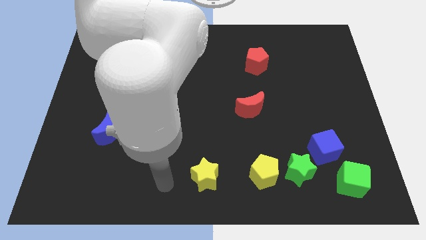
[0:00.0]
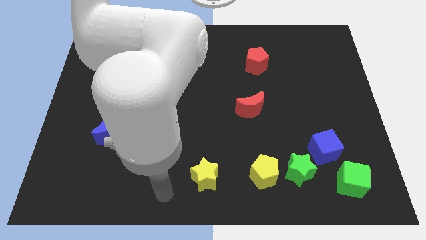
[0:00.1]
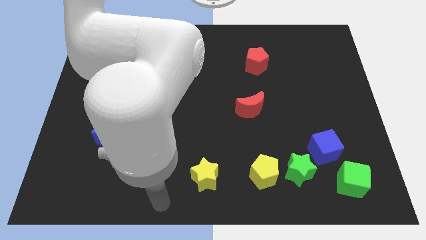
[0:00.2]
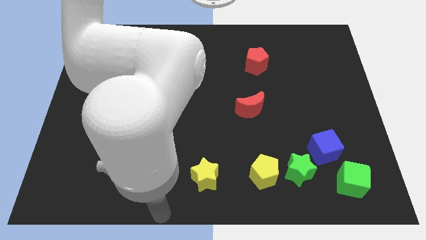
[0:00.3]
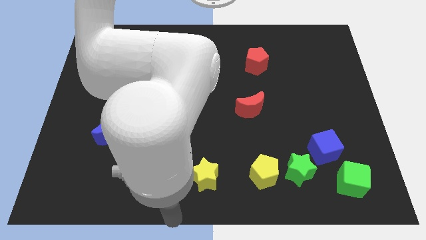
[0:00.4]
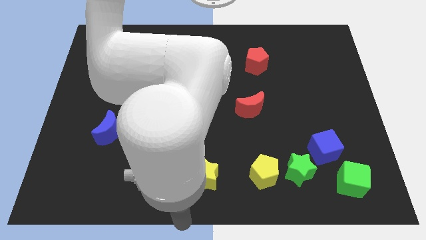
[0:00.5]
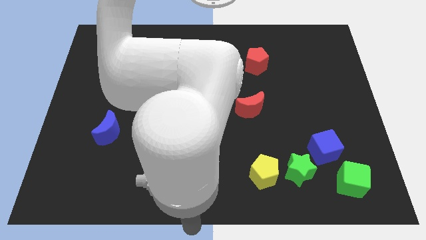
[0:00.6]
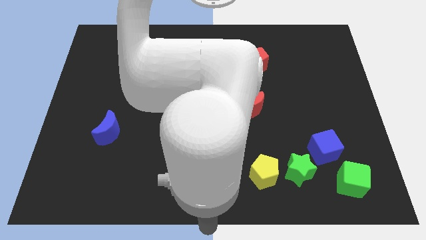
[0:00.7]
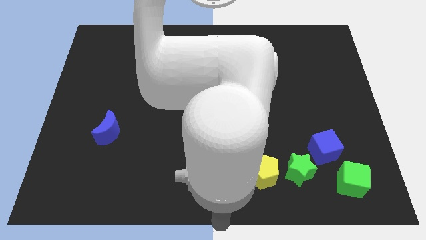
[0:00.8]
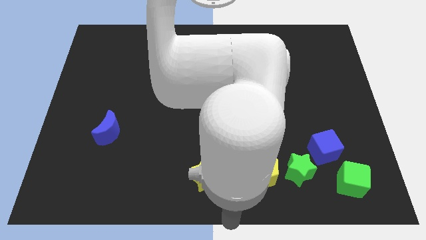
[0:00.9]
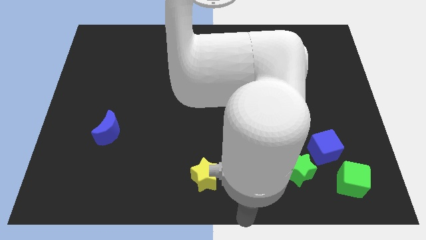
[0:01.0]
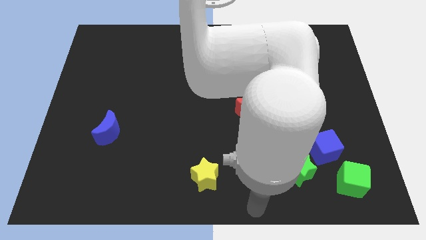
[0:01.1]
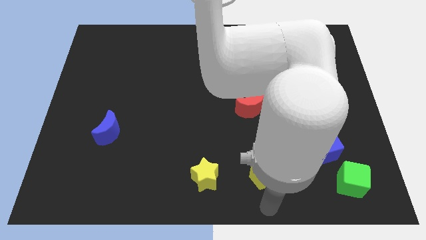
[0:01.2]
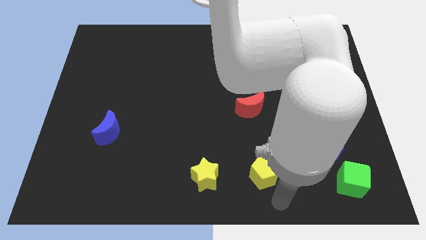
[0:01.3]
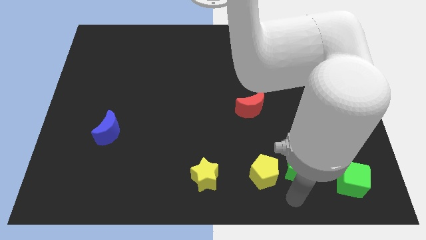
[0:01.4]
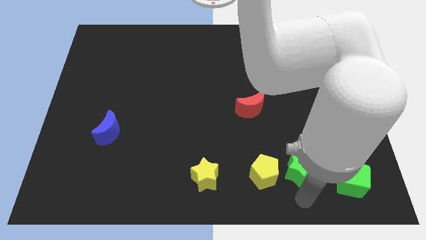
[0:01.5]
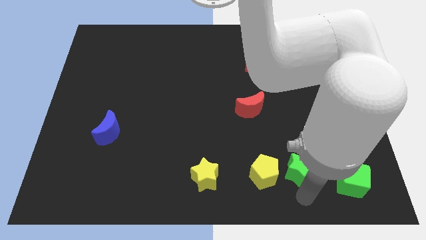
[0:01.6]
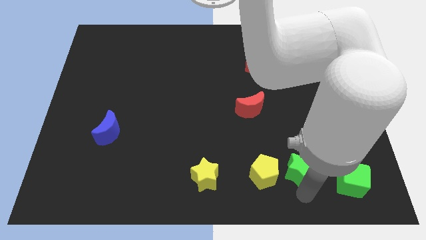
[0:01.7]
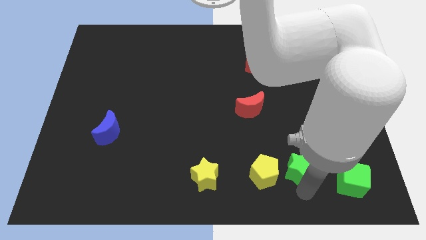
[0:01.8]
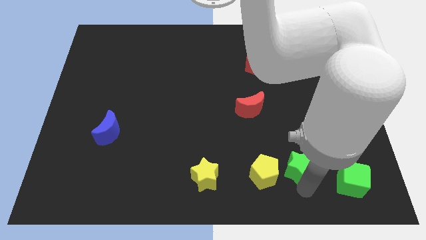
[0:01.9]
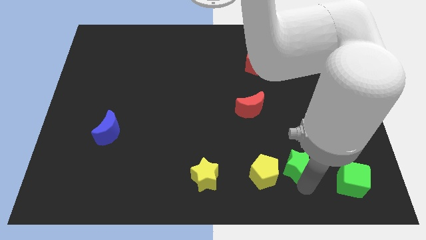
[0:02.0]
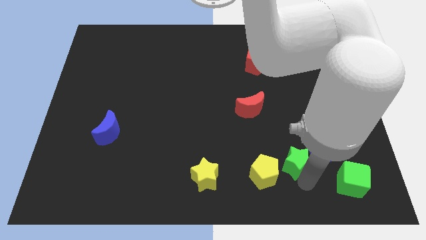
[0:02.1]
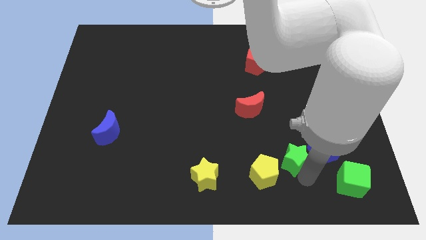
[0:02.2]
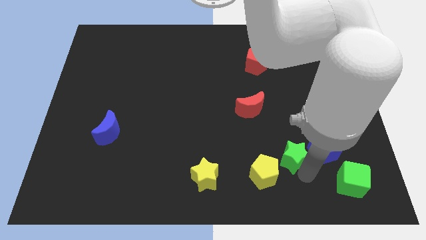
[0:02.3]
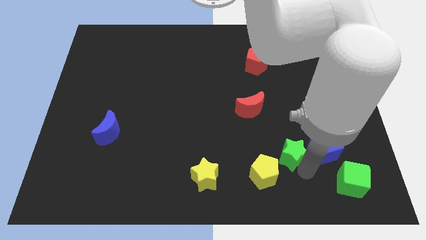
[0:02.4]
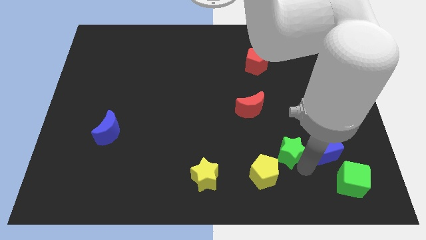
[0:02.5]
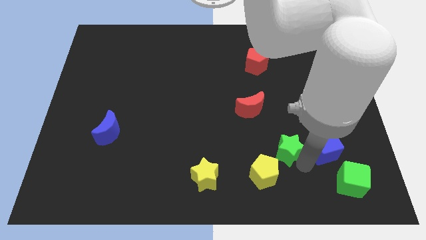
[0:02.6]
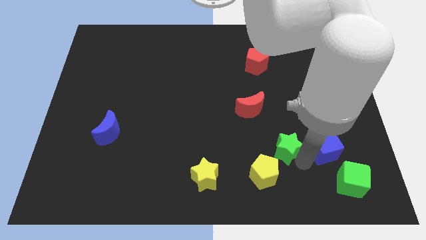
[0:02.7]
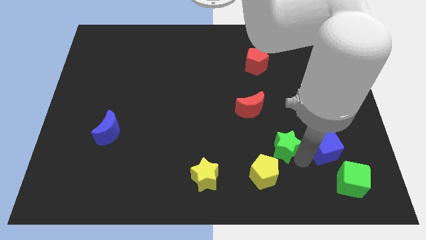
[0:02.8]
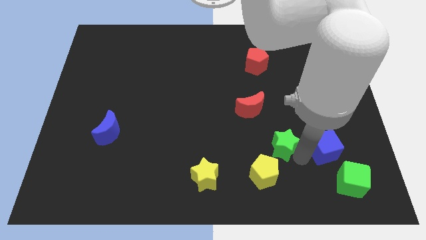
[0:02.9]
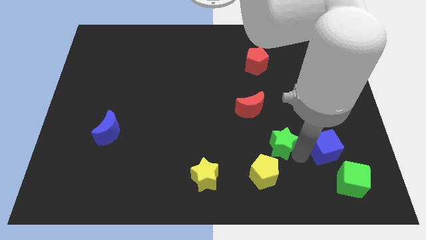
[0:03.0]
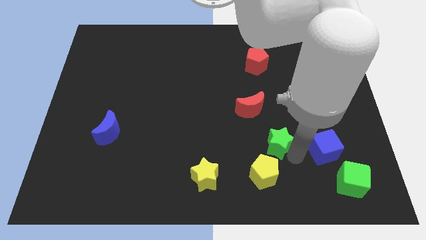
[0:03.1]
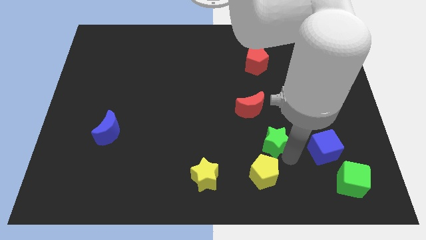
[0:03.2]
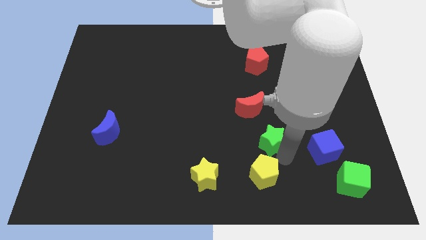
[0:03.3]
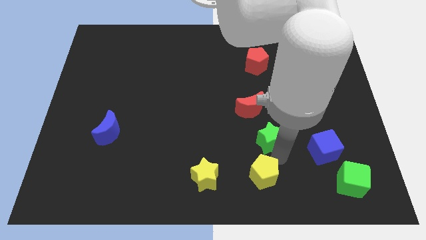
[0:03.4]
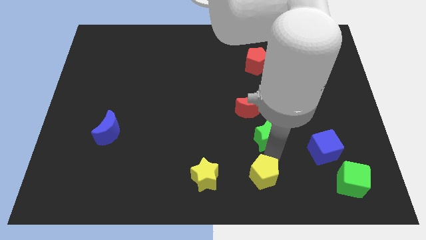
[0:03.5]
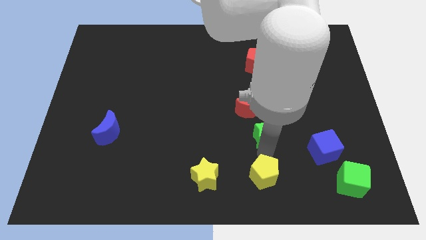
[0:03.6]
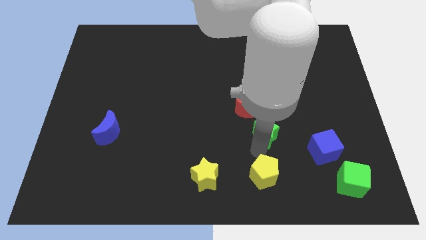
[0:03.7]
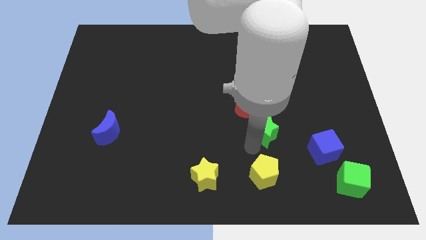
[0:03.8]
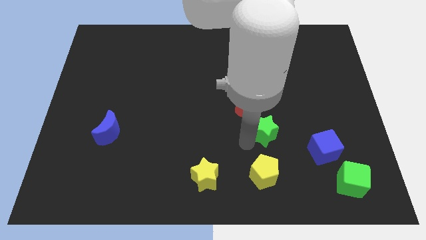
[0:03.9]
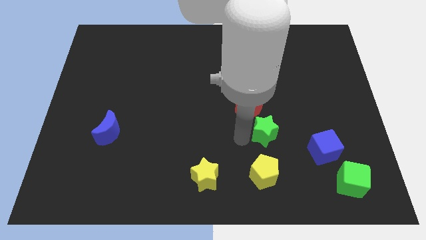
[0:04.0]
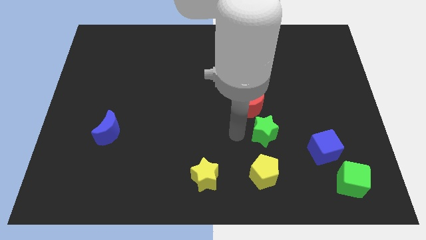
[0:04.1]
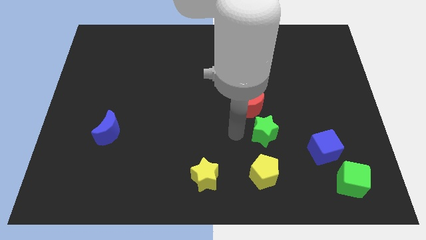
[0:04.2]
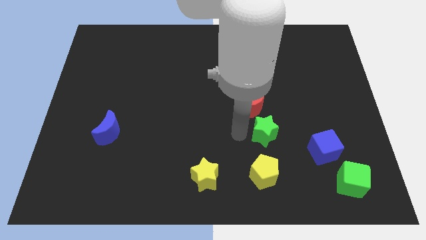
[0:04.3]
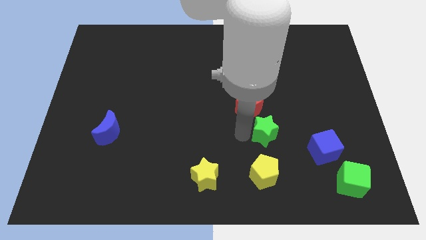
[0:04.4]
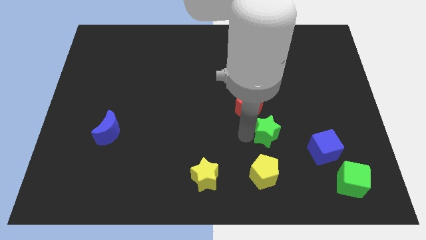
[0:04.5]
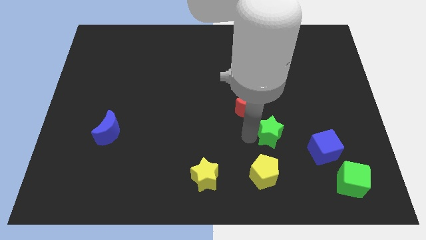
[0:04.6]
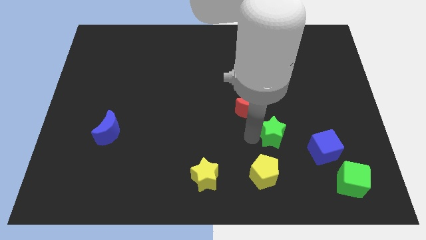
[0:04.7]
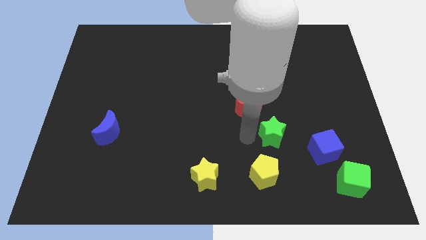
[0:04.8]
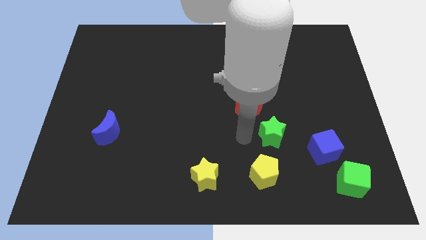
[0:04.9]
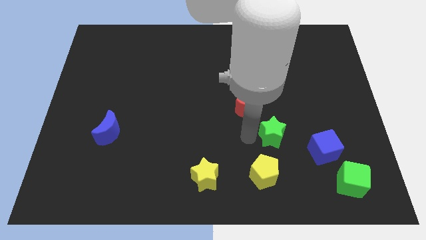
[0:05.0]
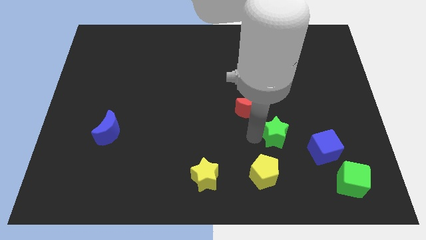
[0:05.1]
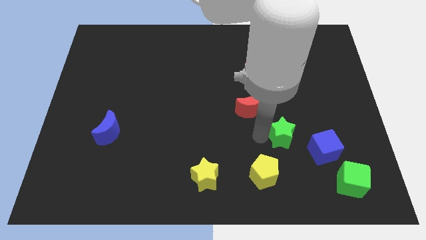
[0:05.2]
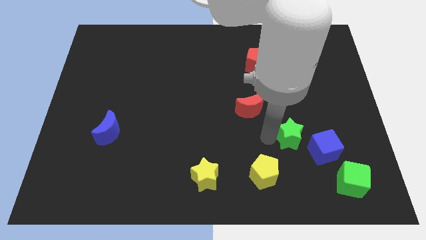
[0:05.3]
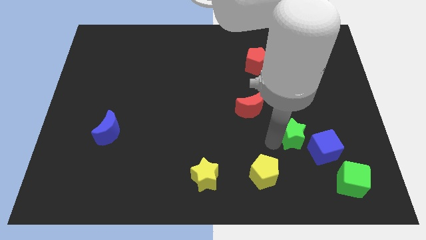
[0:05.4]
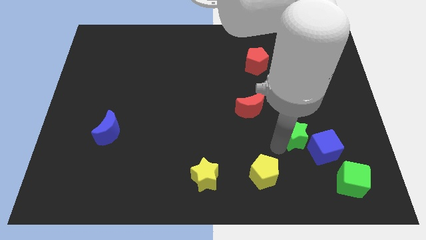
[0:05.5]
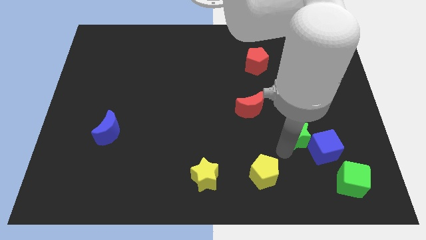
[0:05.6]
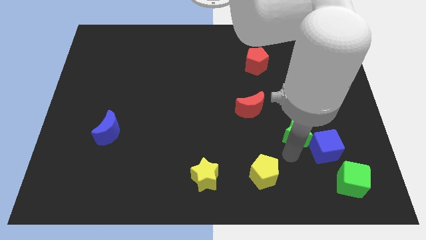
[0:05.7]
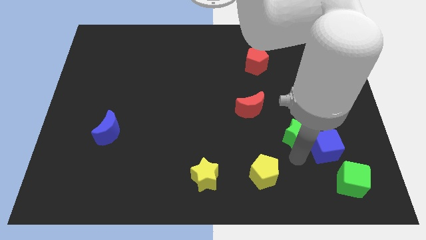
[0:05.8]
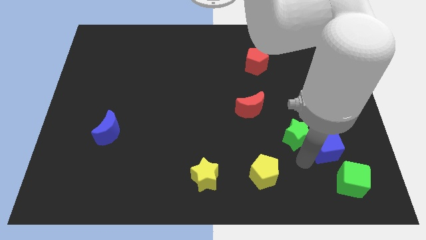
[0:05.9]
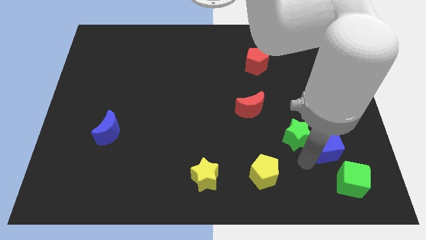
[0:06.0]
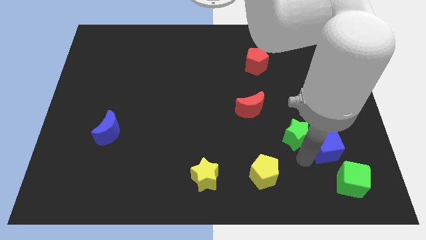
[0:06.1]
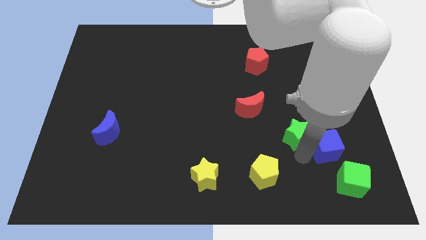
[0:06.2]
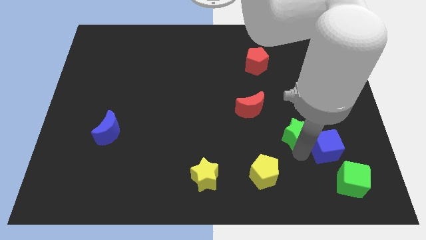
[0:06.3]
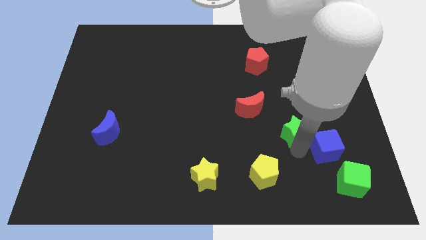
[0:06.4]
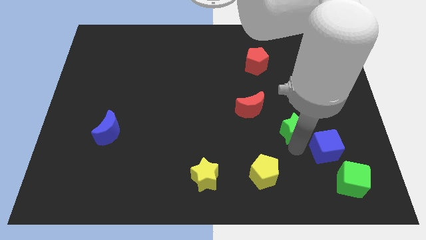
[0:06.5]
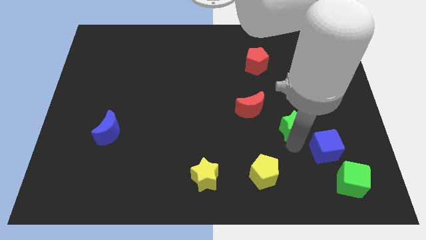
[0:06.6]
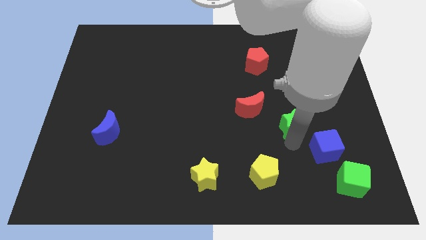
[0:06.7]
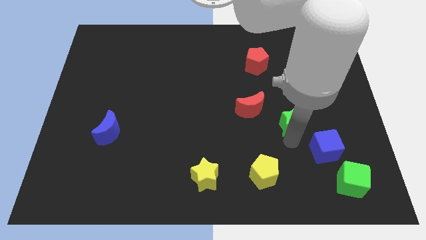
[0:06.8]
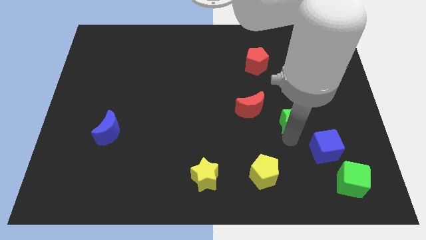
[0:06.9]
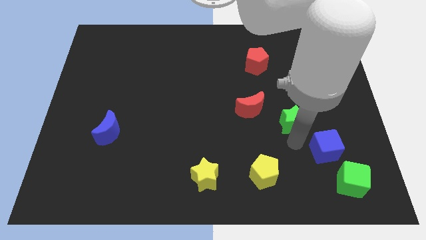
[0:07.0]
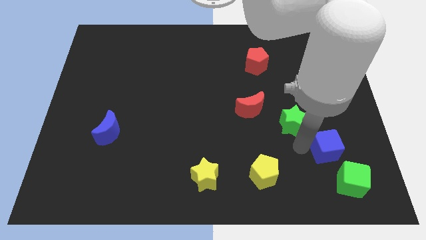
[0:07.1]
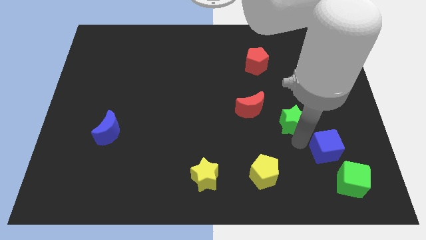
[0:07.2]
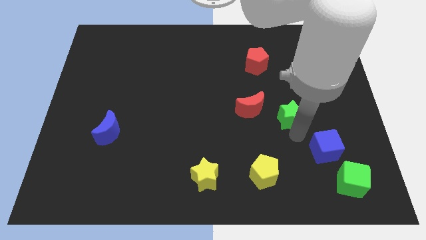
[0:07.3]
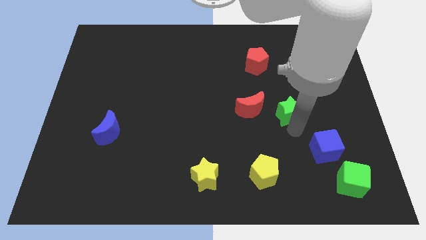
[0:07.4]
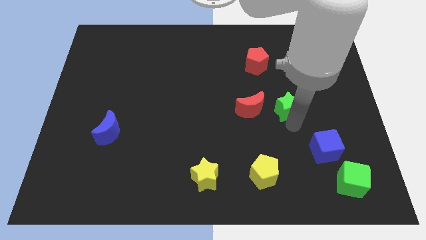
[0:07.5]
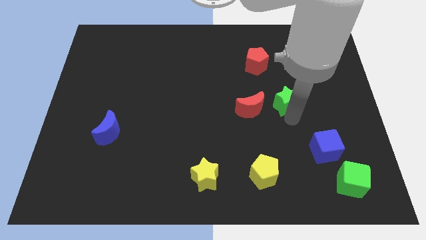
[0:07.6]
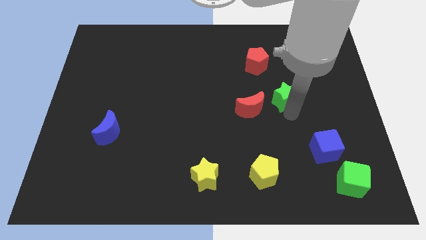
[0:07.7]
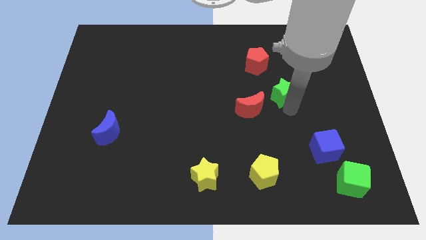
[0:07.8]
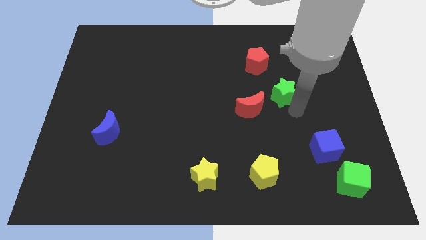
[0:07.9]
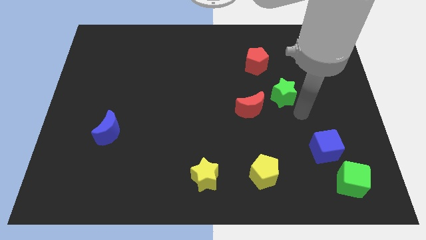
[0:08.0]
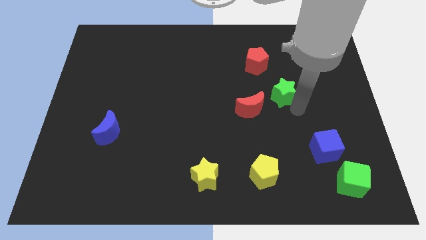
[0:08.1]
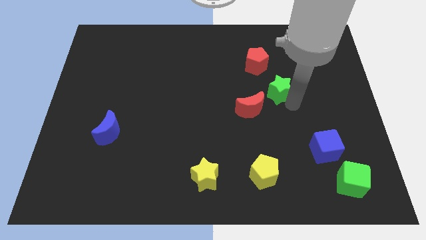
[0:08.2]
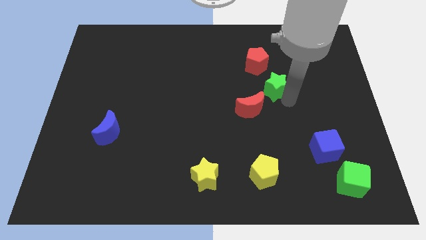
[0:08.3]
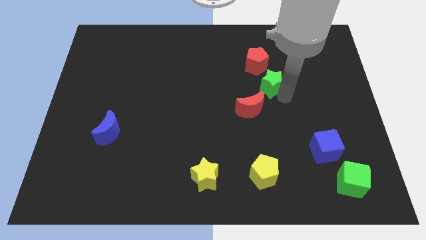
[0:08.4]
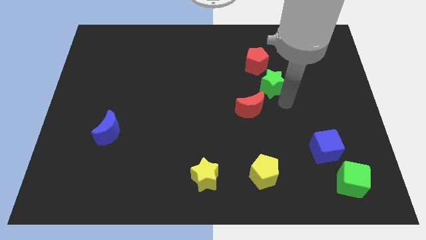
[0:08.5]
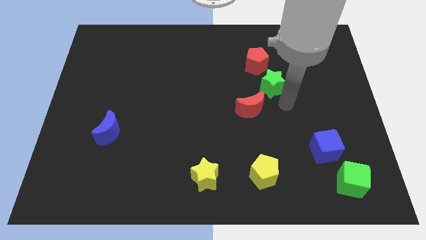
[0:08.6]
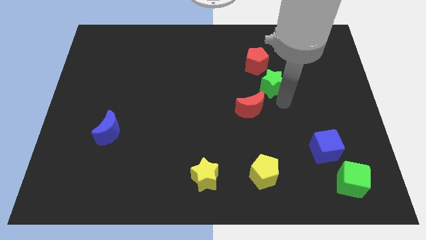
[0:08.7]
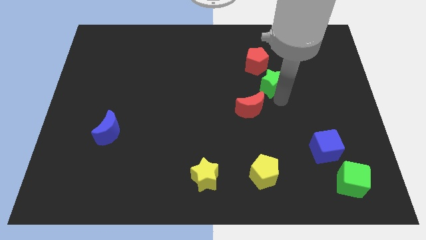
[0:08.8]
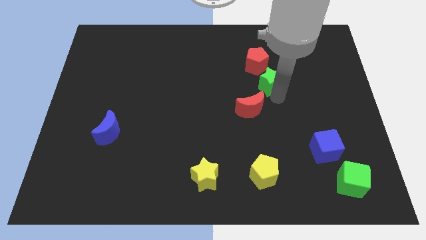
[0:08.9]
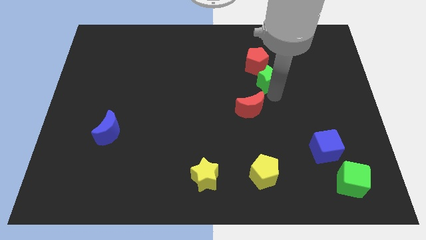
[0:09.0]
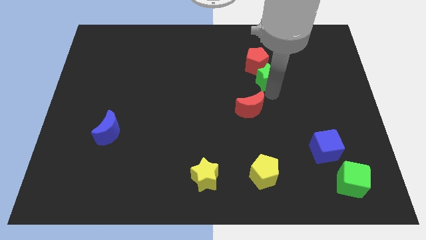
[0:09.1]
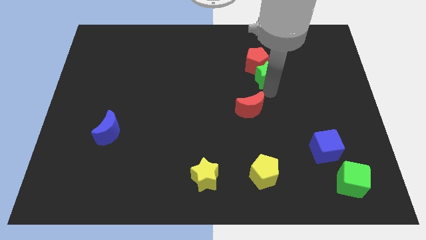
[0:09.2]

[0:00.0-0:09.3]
push the green star to the red pentagon
